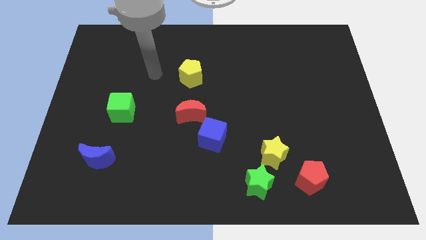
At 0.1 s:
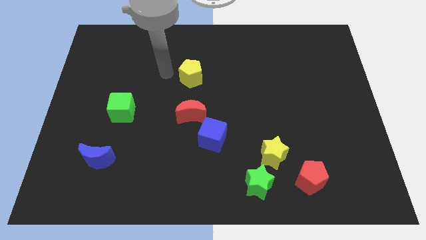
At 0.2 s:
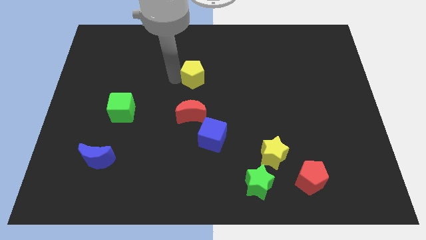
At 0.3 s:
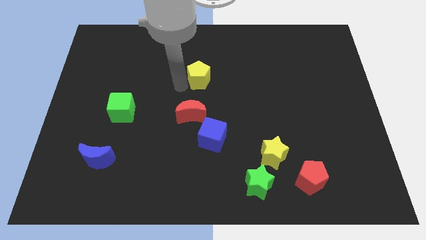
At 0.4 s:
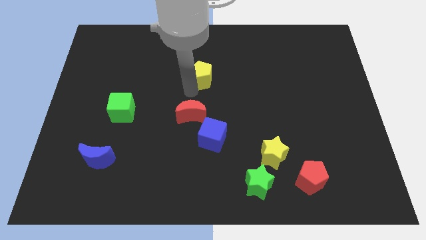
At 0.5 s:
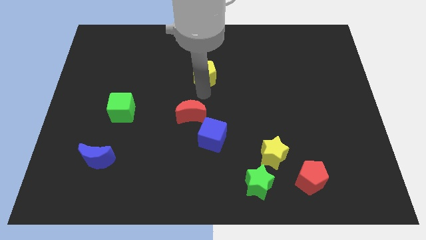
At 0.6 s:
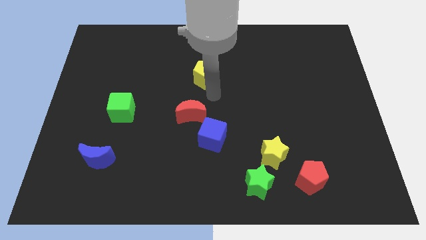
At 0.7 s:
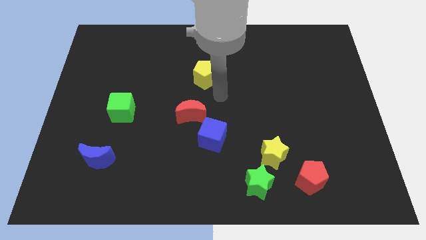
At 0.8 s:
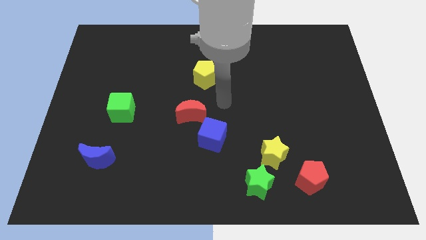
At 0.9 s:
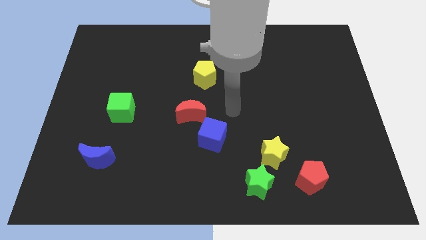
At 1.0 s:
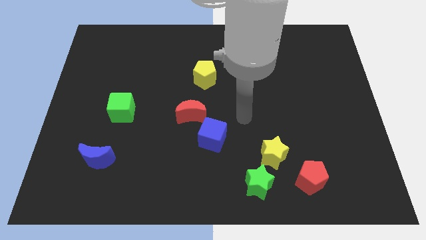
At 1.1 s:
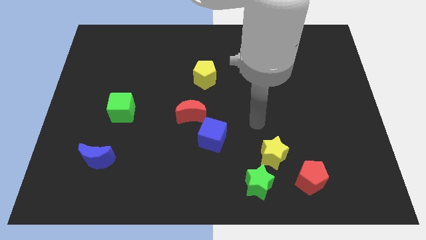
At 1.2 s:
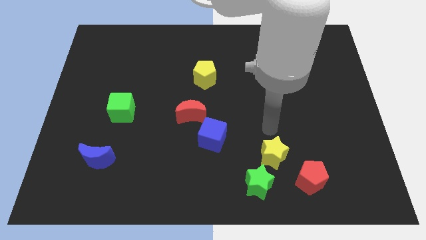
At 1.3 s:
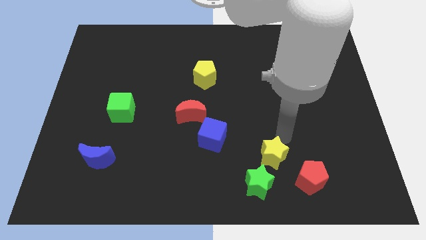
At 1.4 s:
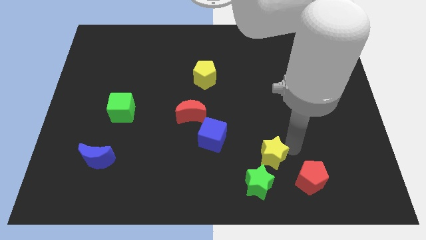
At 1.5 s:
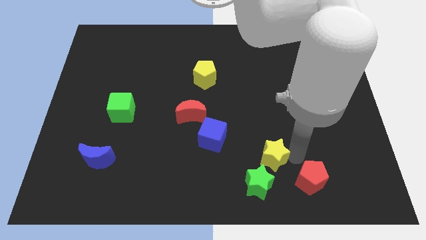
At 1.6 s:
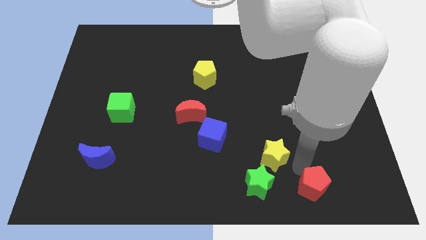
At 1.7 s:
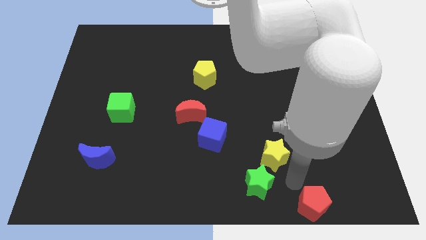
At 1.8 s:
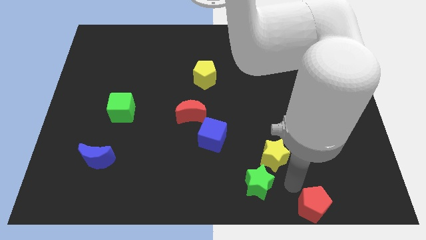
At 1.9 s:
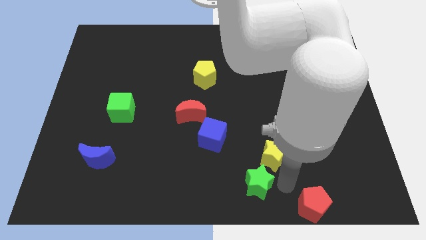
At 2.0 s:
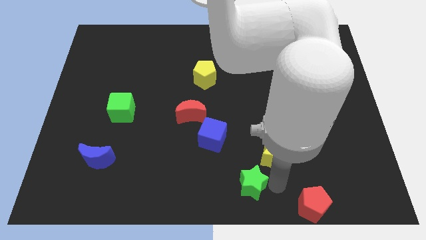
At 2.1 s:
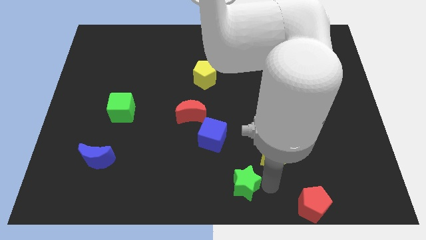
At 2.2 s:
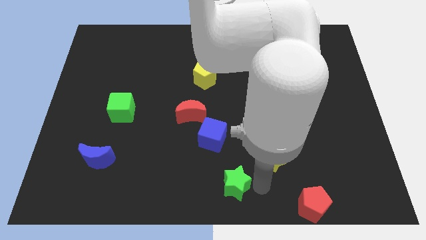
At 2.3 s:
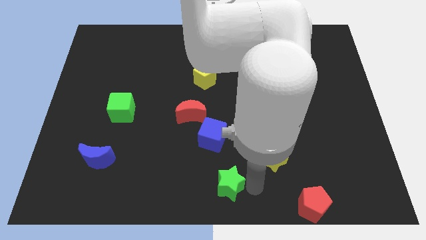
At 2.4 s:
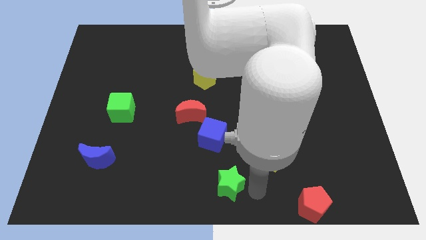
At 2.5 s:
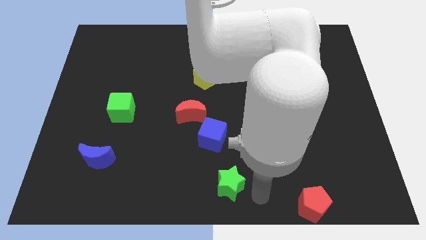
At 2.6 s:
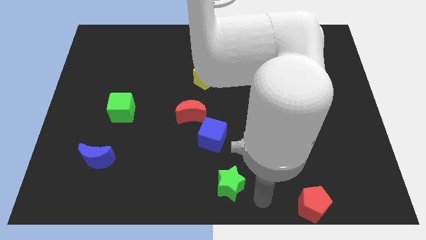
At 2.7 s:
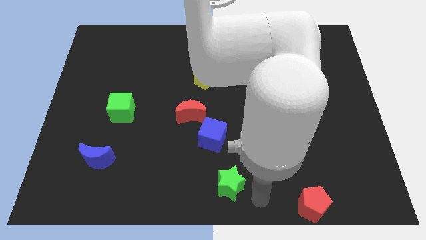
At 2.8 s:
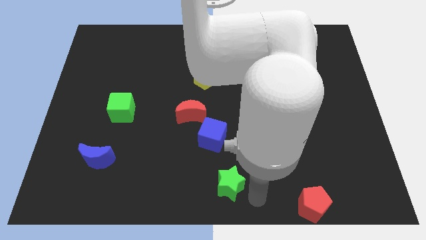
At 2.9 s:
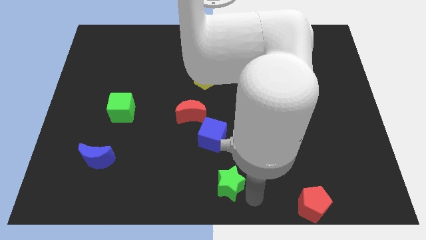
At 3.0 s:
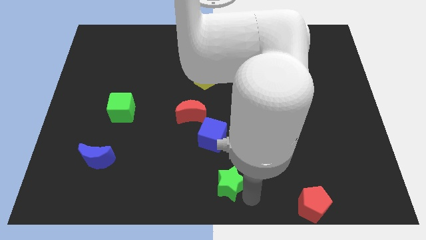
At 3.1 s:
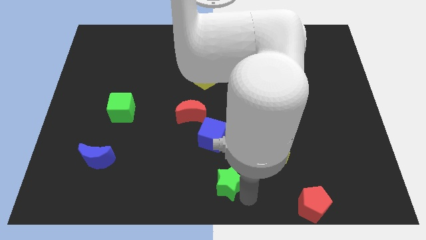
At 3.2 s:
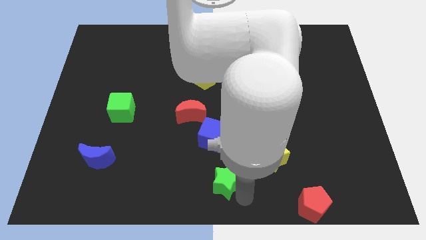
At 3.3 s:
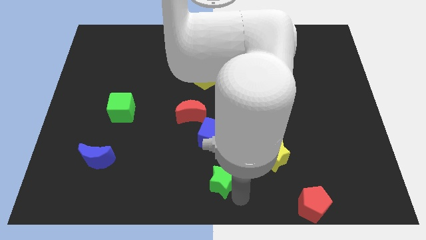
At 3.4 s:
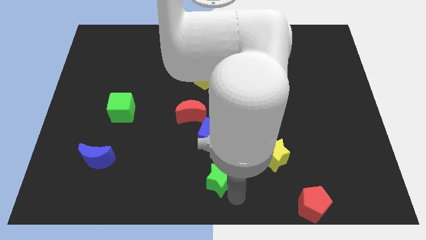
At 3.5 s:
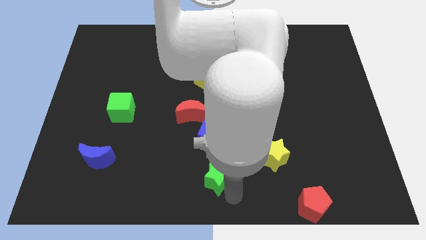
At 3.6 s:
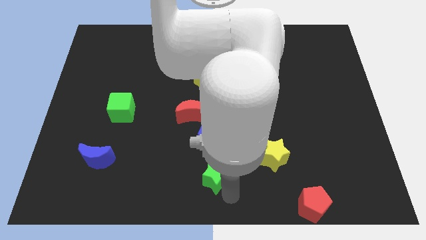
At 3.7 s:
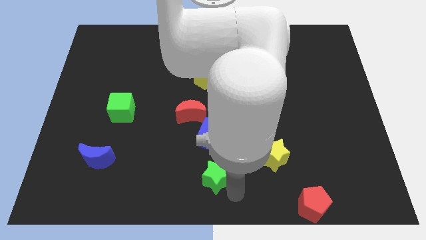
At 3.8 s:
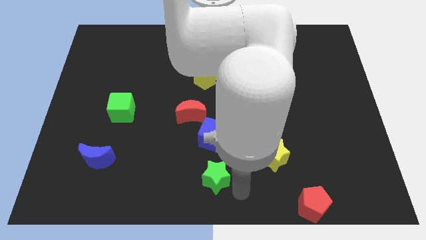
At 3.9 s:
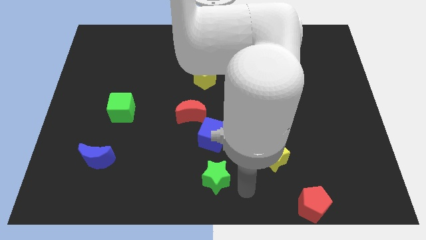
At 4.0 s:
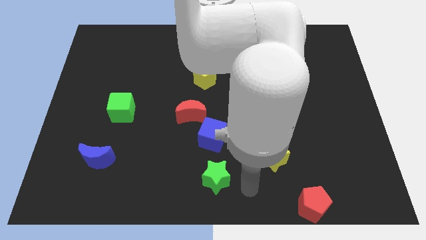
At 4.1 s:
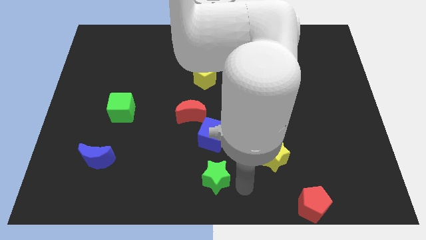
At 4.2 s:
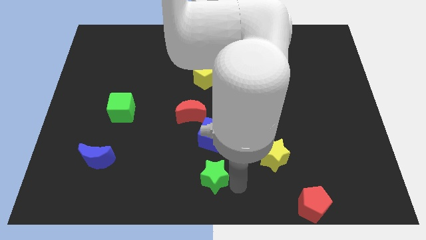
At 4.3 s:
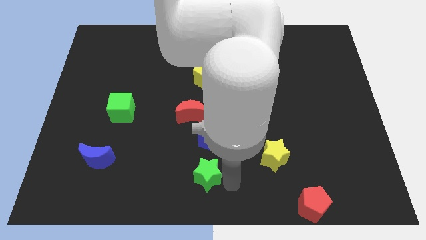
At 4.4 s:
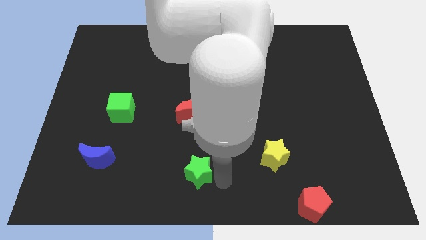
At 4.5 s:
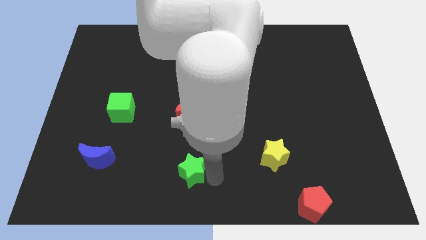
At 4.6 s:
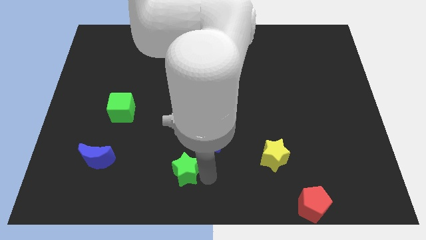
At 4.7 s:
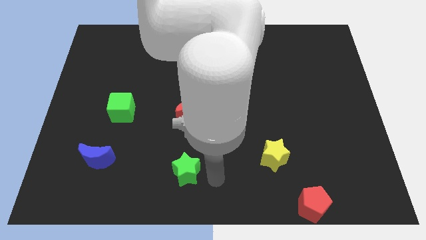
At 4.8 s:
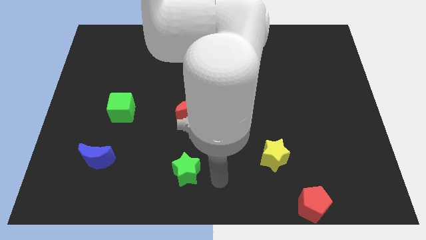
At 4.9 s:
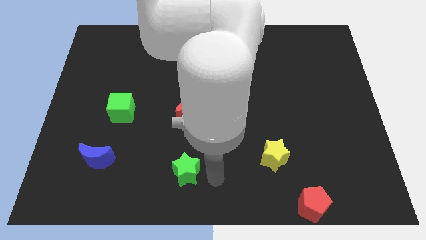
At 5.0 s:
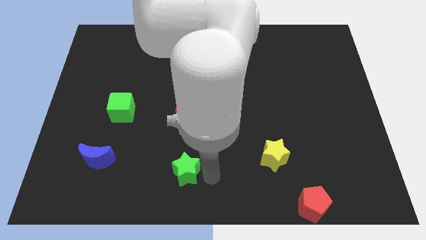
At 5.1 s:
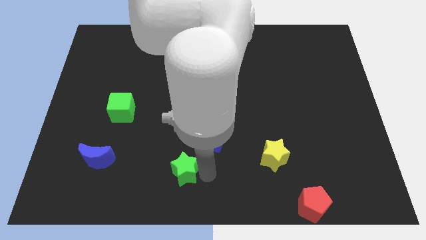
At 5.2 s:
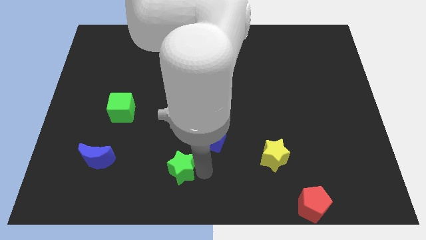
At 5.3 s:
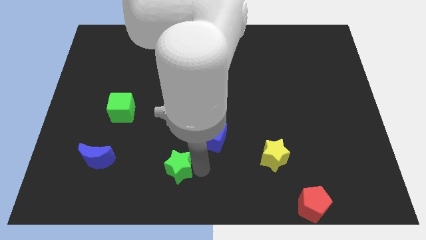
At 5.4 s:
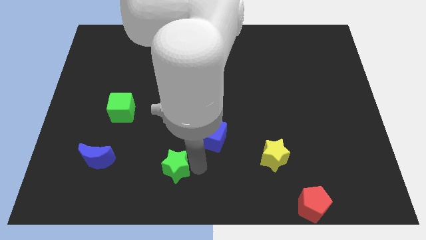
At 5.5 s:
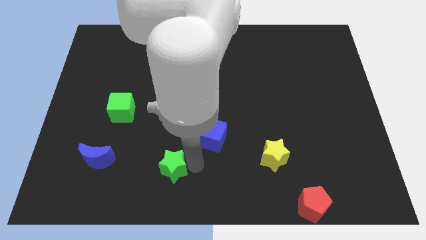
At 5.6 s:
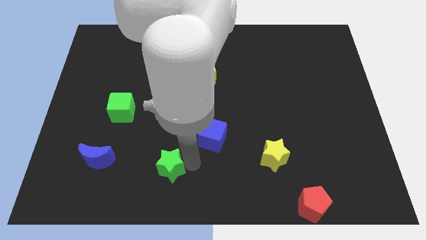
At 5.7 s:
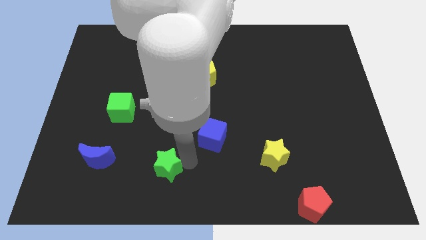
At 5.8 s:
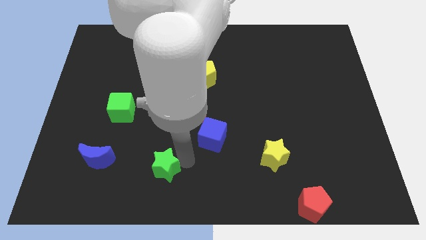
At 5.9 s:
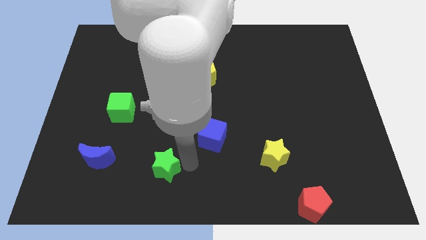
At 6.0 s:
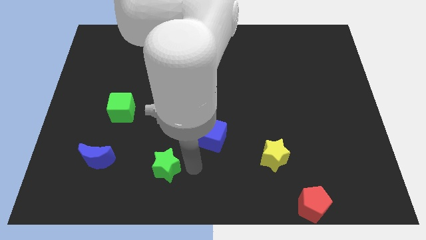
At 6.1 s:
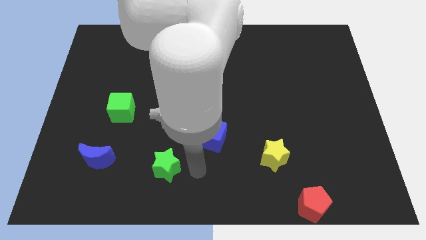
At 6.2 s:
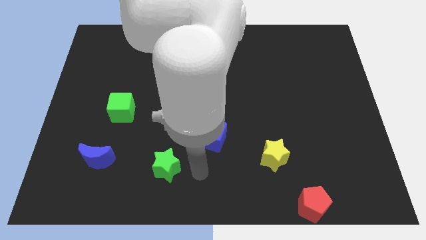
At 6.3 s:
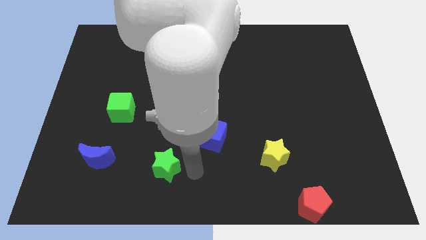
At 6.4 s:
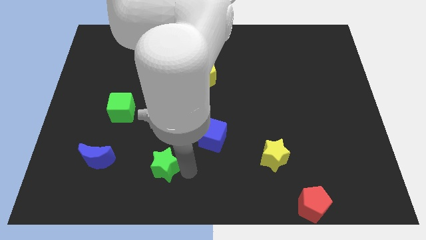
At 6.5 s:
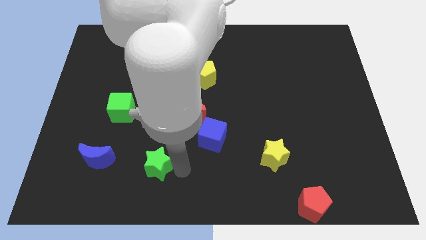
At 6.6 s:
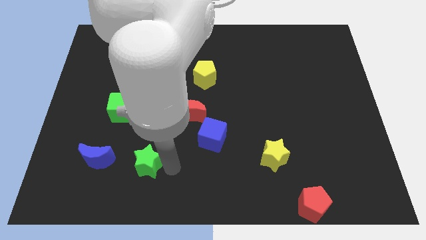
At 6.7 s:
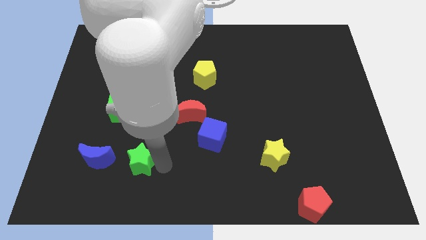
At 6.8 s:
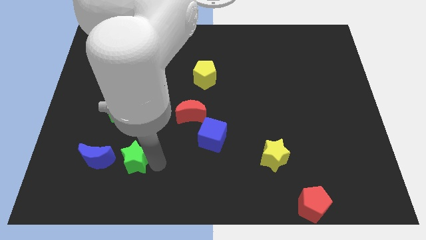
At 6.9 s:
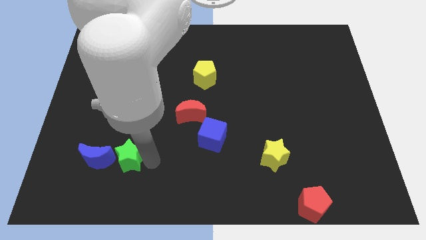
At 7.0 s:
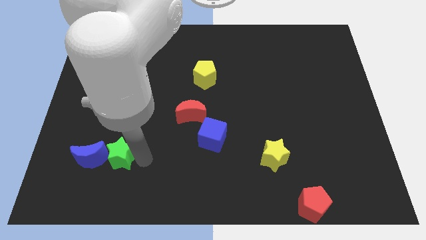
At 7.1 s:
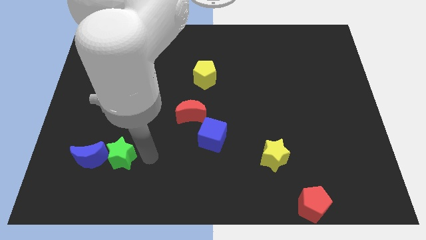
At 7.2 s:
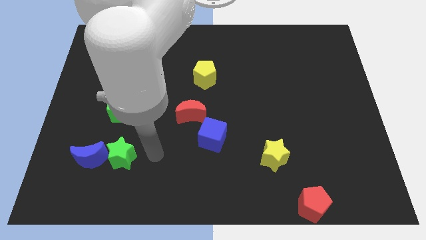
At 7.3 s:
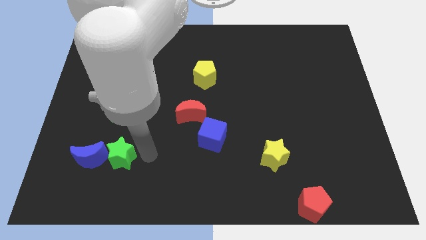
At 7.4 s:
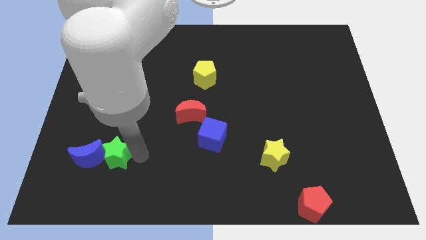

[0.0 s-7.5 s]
put the green star towards the blue moon

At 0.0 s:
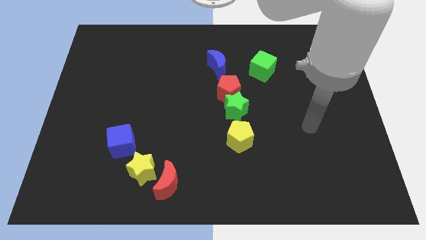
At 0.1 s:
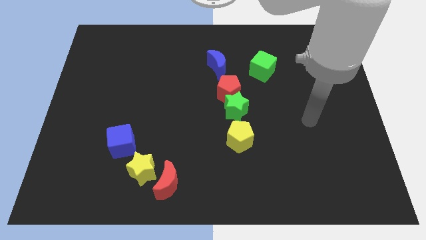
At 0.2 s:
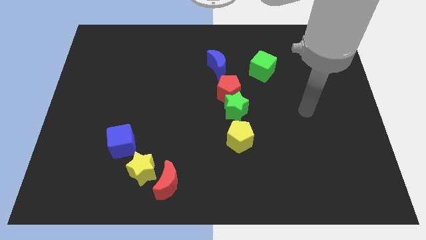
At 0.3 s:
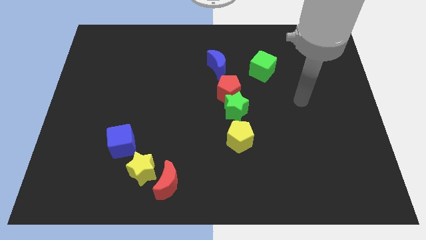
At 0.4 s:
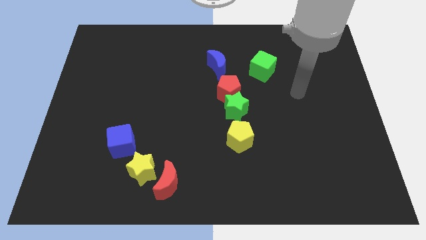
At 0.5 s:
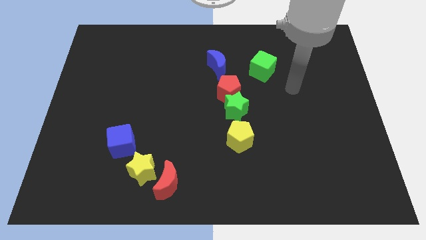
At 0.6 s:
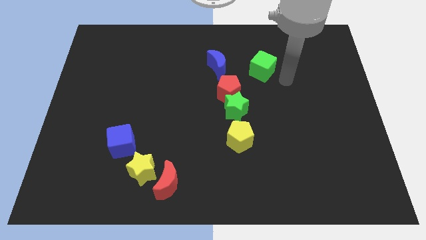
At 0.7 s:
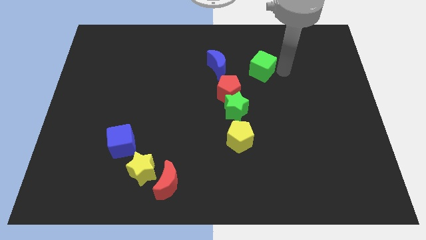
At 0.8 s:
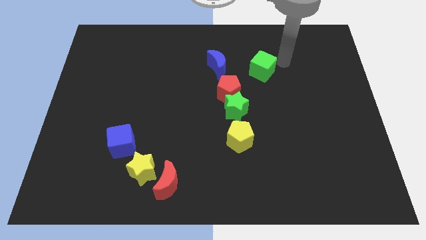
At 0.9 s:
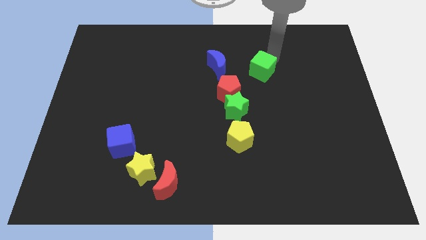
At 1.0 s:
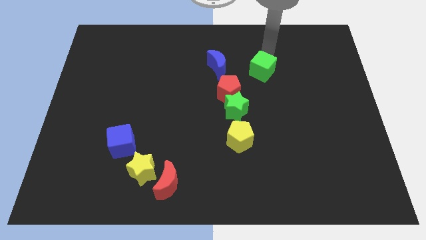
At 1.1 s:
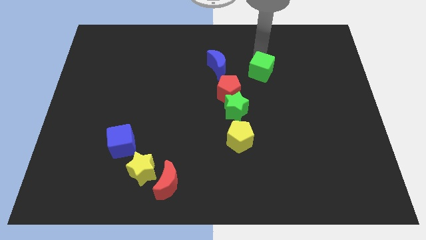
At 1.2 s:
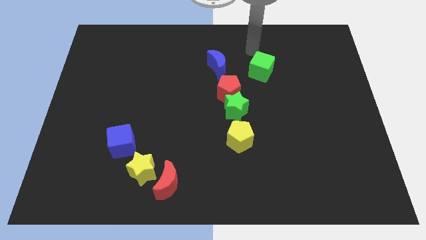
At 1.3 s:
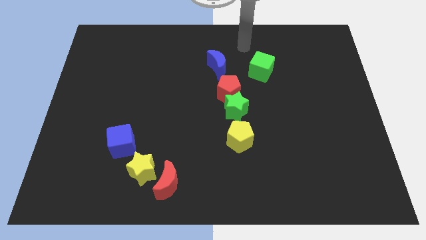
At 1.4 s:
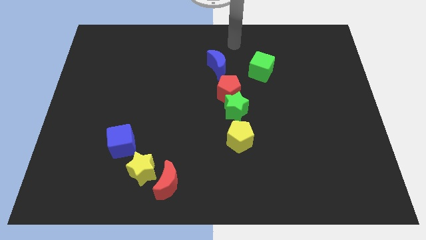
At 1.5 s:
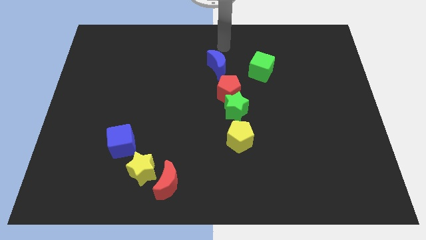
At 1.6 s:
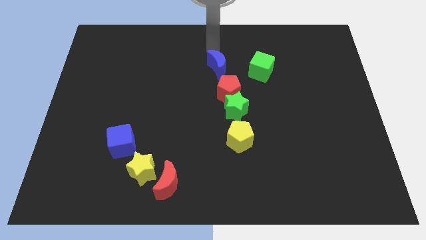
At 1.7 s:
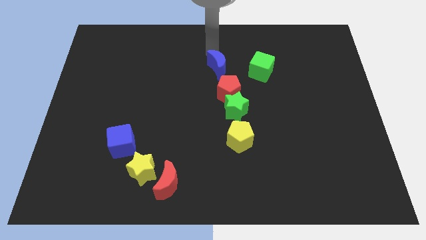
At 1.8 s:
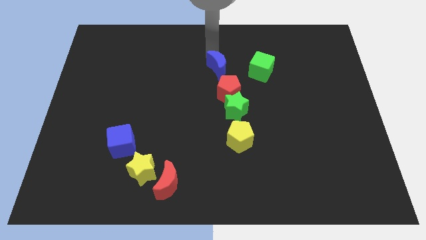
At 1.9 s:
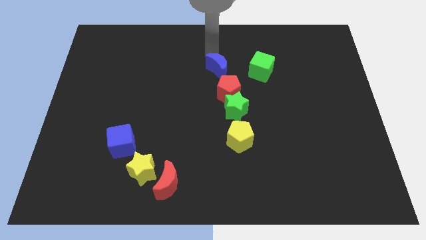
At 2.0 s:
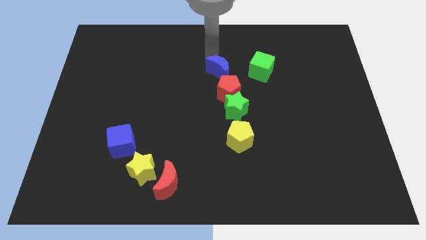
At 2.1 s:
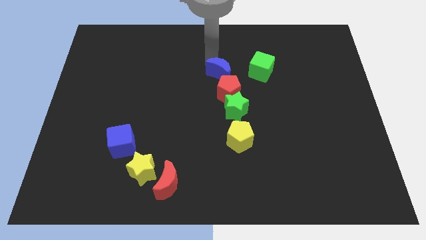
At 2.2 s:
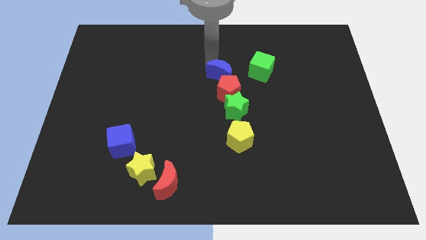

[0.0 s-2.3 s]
move the blue moon close to the red pentagon
